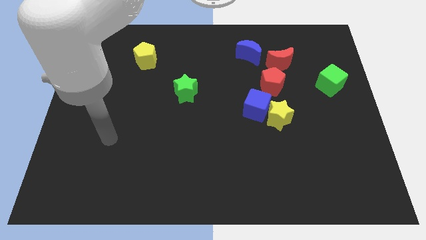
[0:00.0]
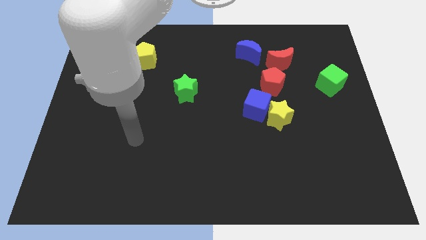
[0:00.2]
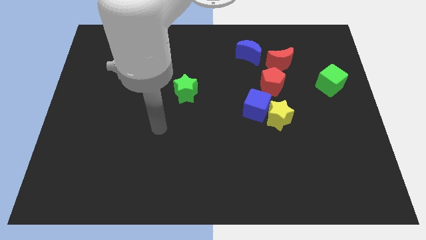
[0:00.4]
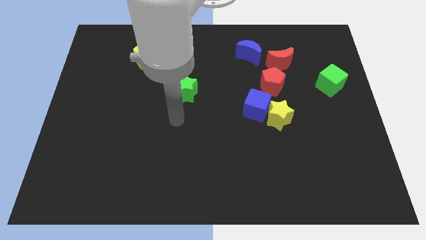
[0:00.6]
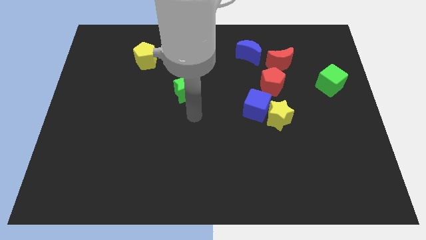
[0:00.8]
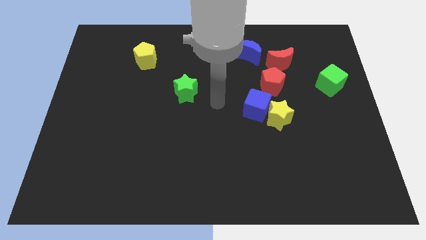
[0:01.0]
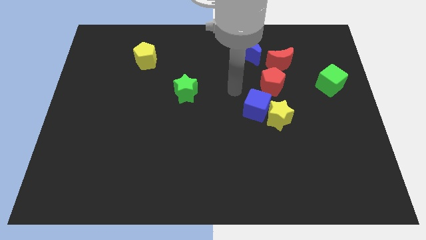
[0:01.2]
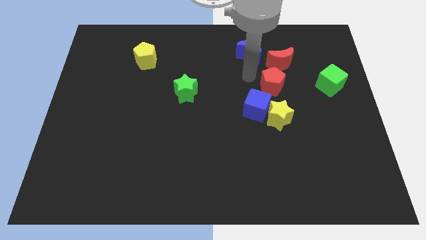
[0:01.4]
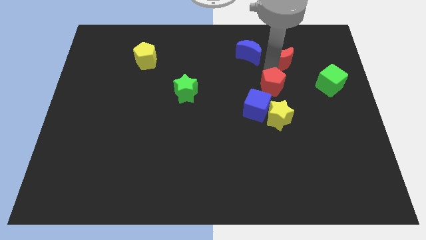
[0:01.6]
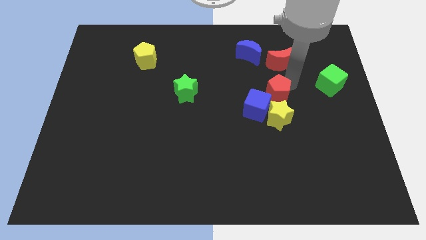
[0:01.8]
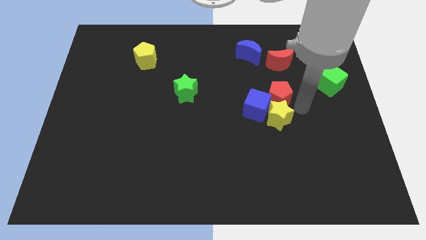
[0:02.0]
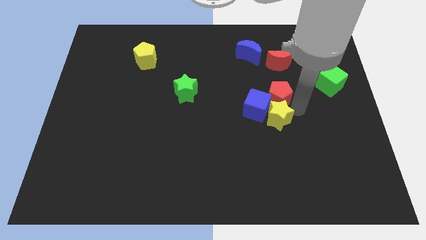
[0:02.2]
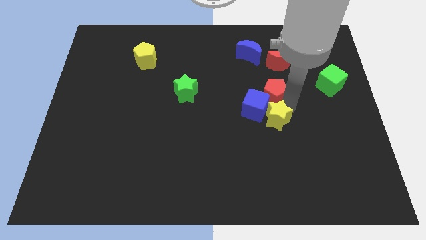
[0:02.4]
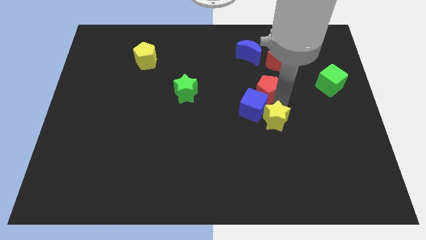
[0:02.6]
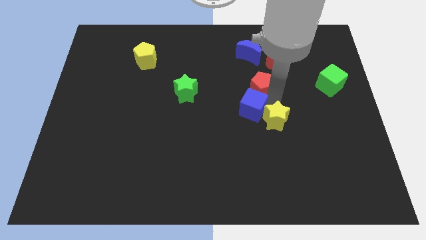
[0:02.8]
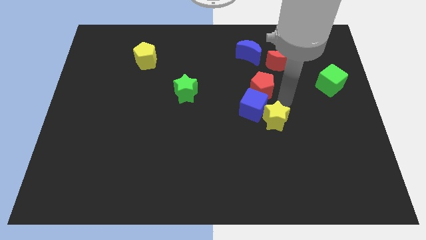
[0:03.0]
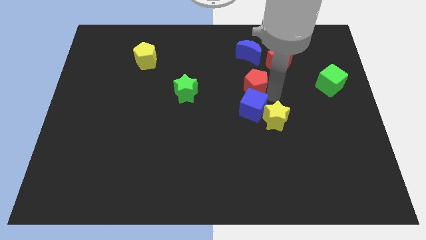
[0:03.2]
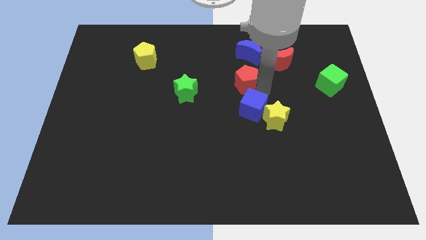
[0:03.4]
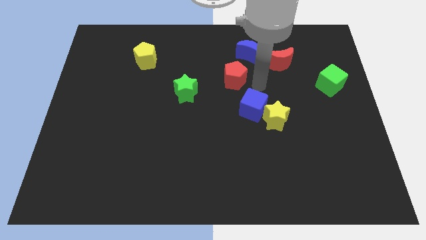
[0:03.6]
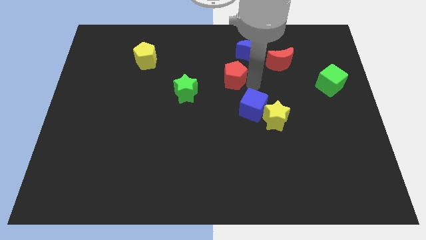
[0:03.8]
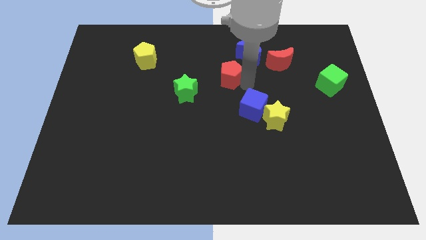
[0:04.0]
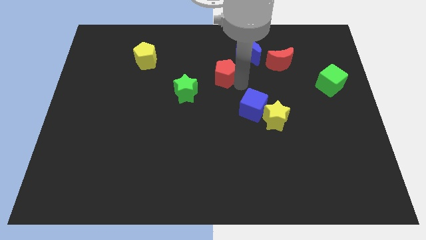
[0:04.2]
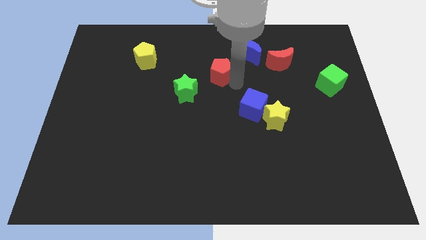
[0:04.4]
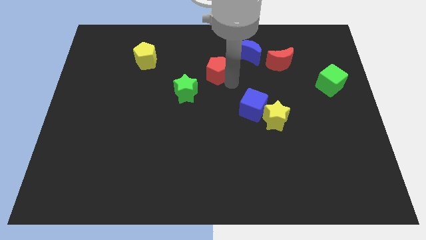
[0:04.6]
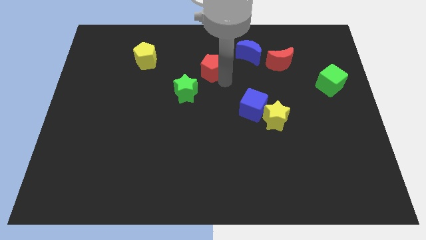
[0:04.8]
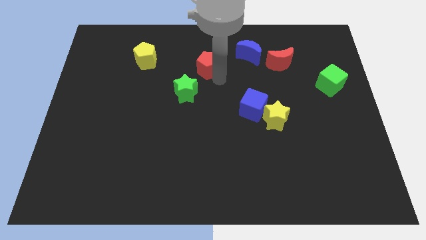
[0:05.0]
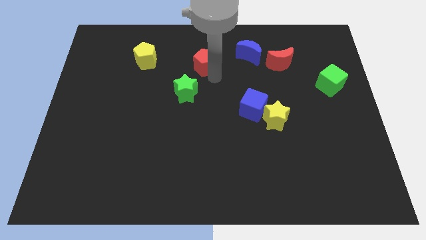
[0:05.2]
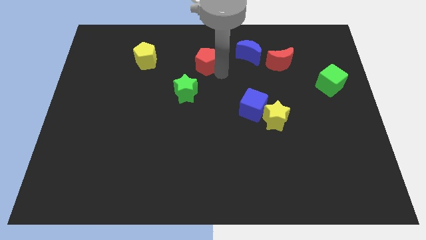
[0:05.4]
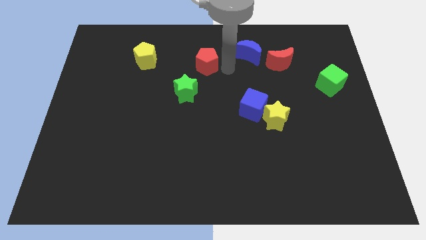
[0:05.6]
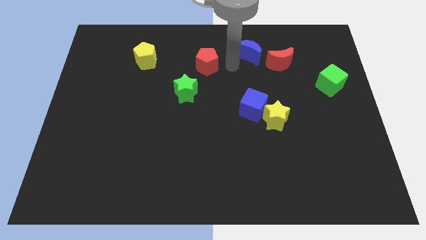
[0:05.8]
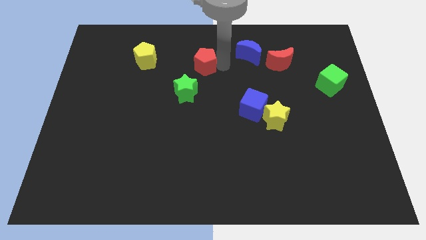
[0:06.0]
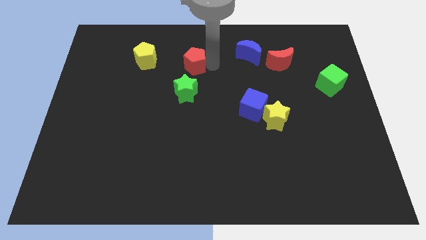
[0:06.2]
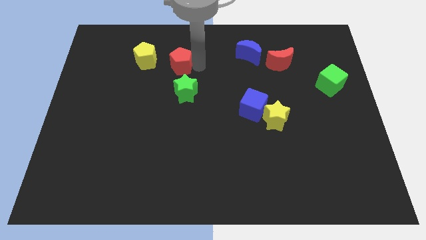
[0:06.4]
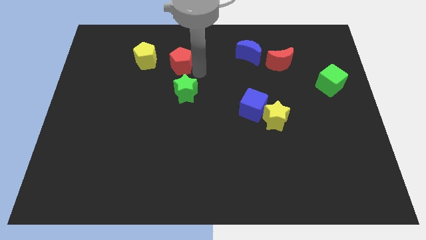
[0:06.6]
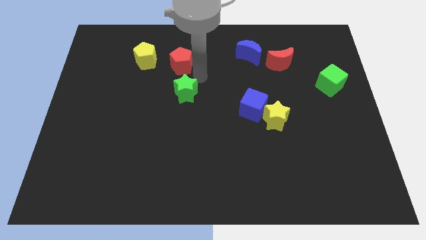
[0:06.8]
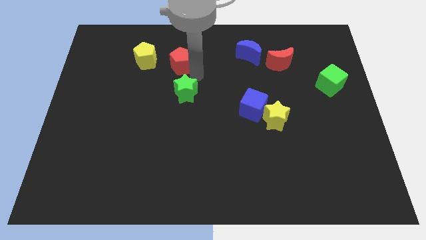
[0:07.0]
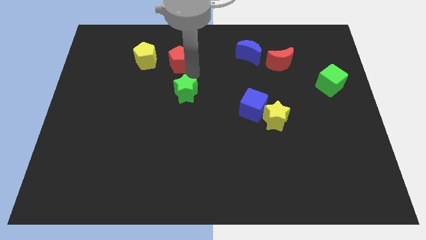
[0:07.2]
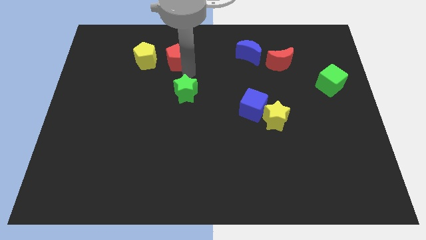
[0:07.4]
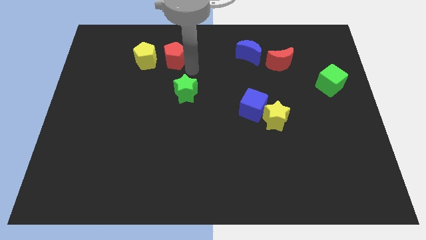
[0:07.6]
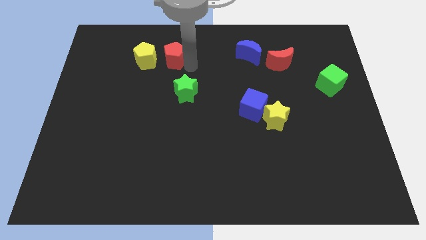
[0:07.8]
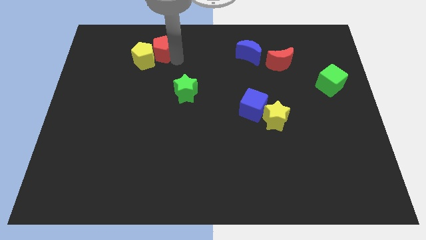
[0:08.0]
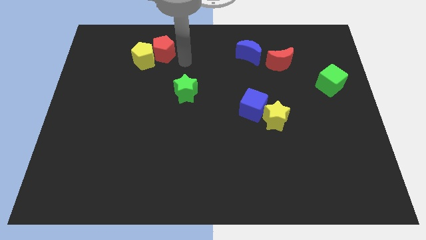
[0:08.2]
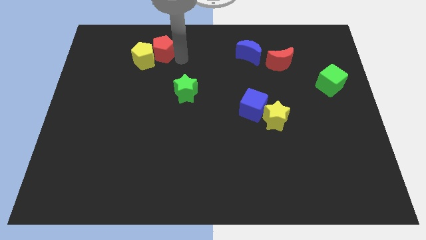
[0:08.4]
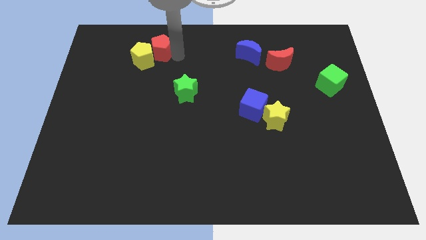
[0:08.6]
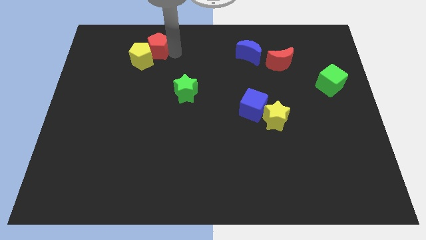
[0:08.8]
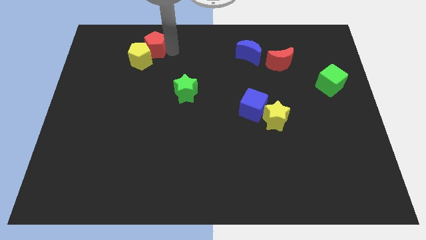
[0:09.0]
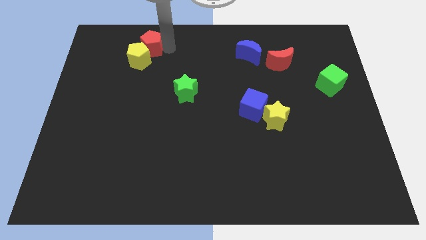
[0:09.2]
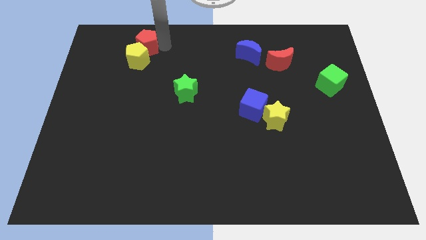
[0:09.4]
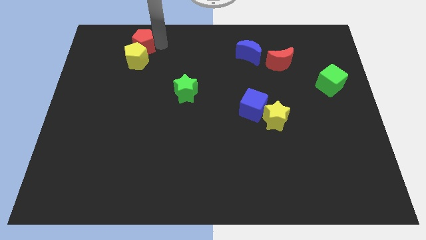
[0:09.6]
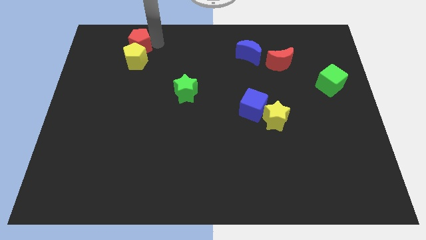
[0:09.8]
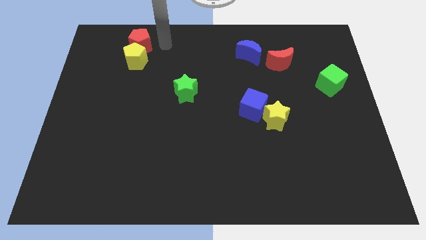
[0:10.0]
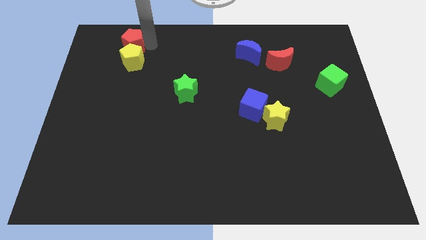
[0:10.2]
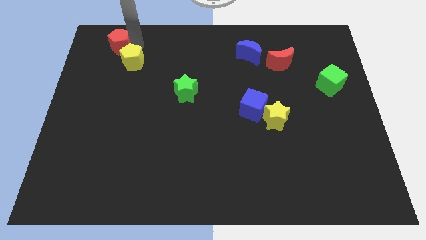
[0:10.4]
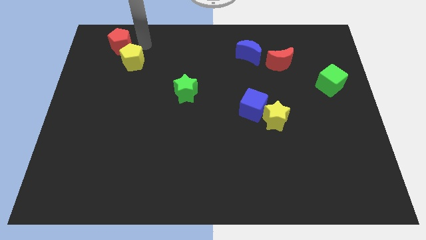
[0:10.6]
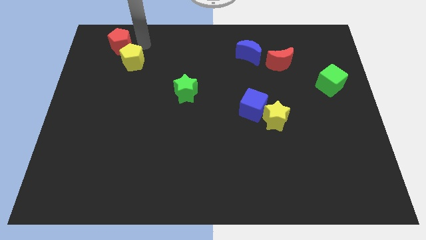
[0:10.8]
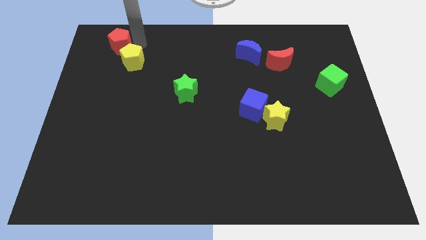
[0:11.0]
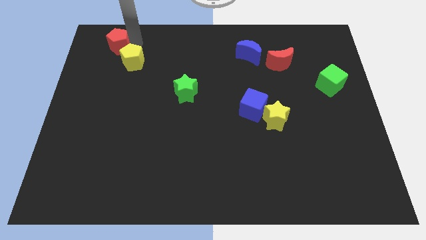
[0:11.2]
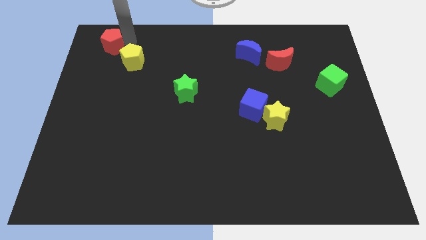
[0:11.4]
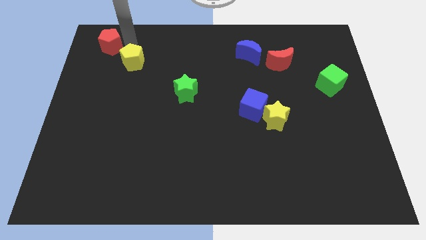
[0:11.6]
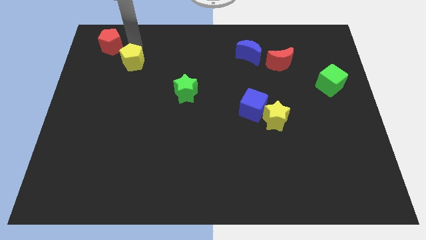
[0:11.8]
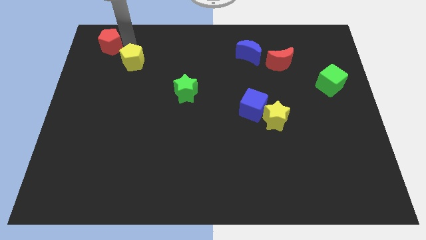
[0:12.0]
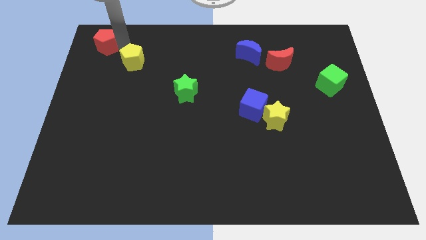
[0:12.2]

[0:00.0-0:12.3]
move the red pentagon to the top left corner
